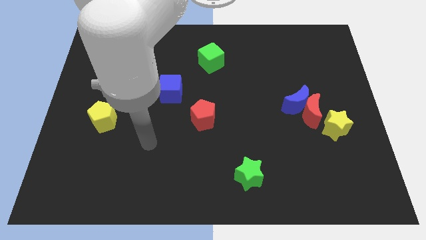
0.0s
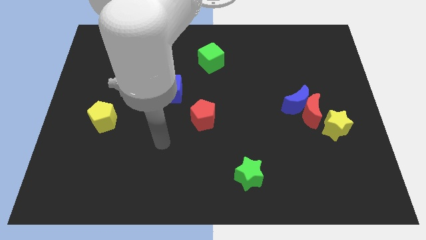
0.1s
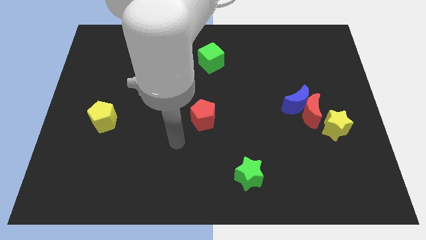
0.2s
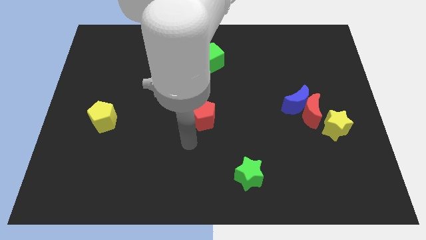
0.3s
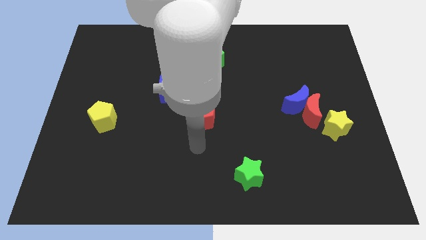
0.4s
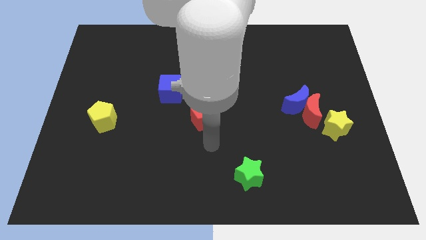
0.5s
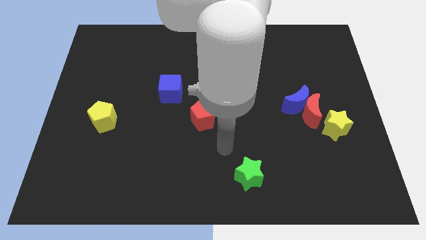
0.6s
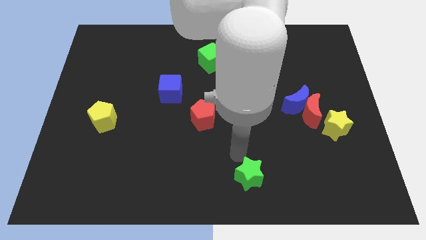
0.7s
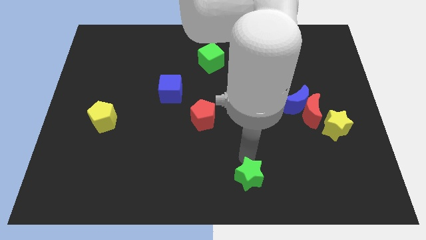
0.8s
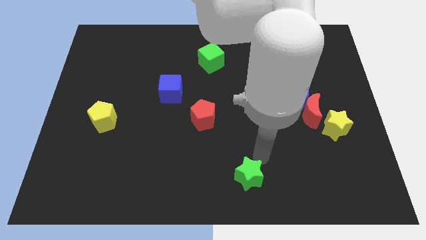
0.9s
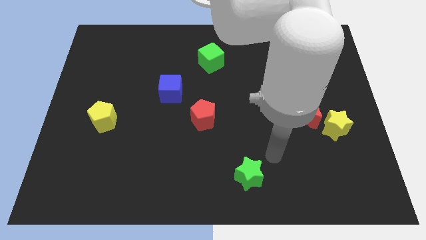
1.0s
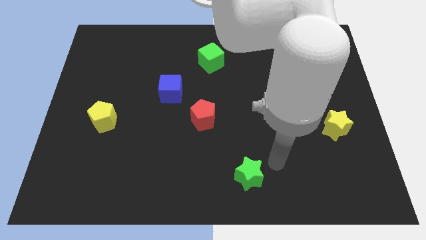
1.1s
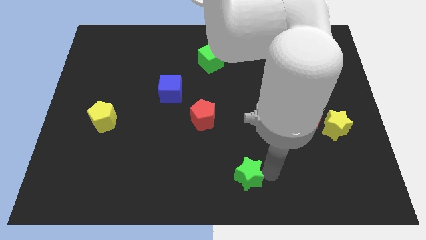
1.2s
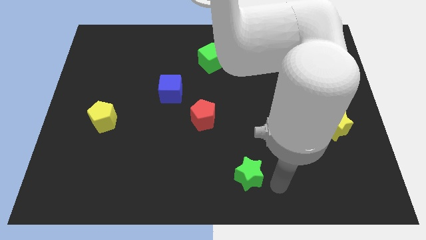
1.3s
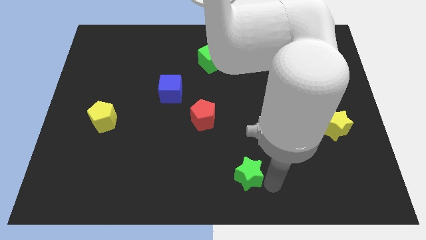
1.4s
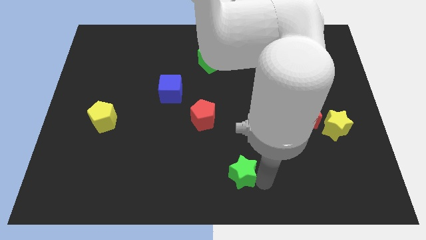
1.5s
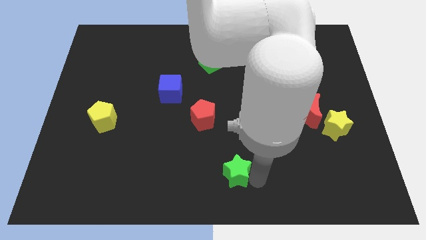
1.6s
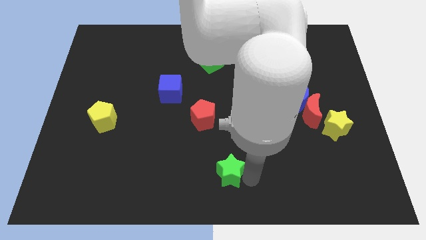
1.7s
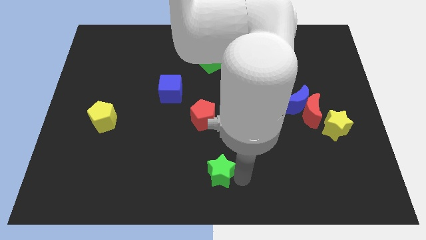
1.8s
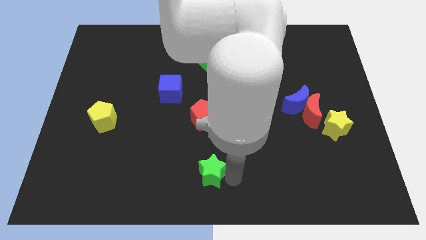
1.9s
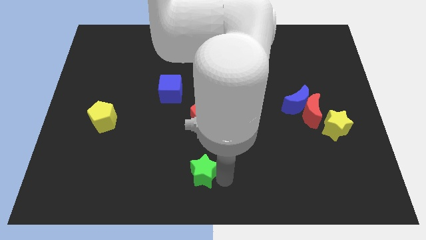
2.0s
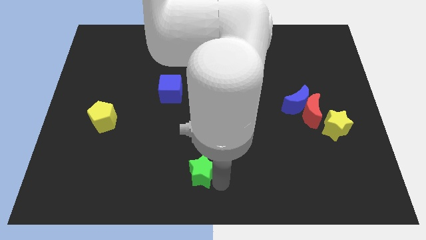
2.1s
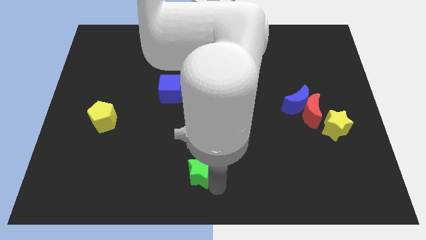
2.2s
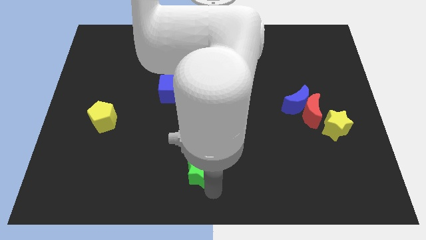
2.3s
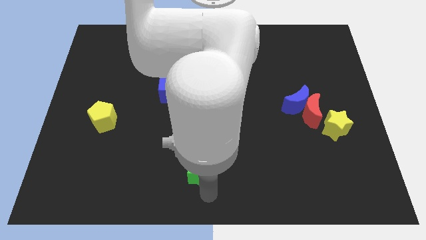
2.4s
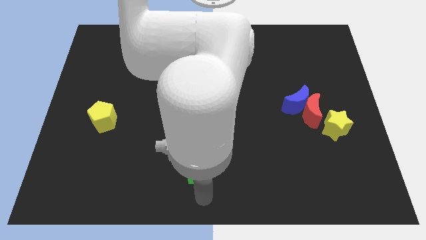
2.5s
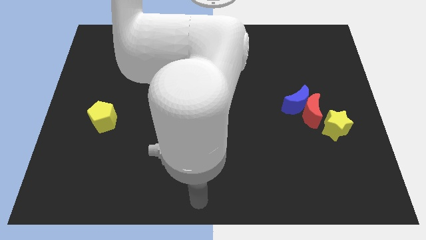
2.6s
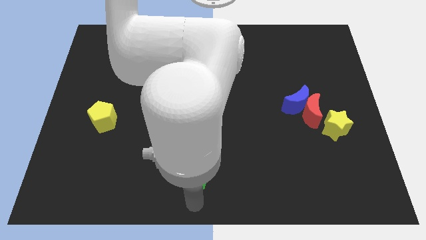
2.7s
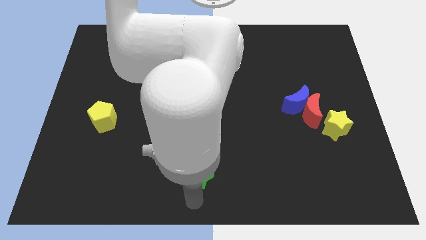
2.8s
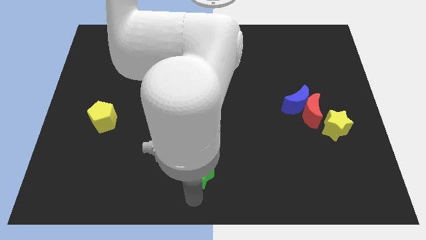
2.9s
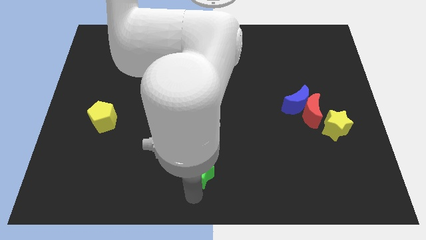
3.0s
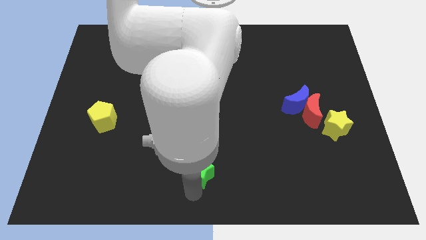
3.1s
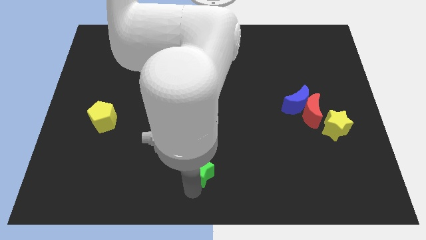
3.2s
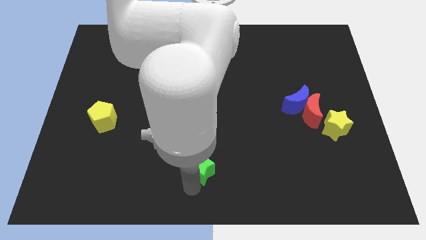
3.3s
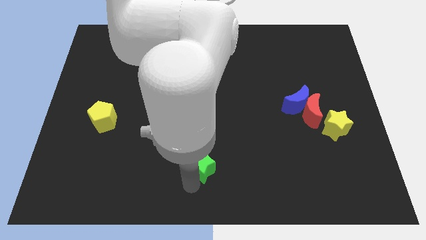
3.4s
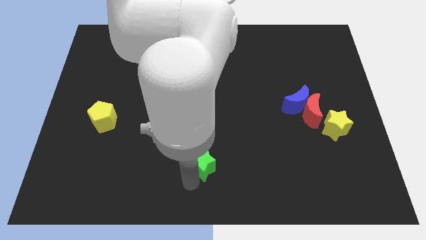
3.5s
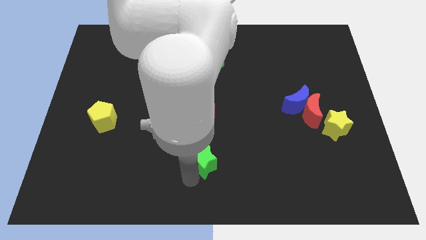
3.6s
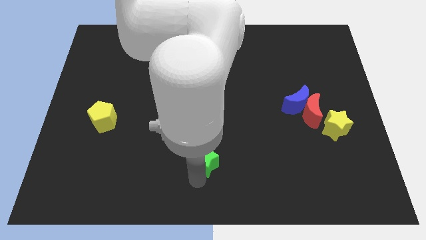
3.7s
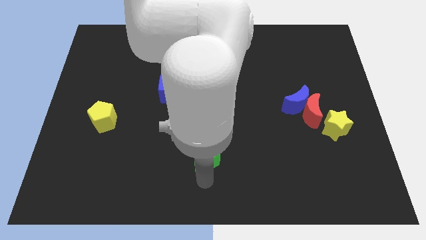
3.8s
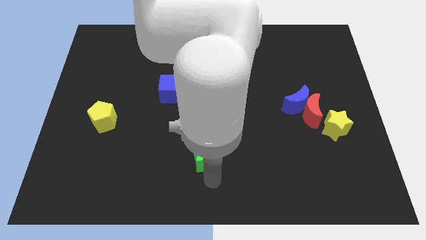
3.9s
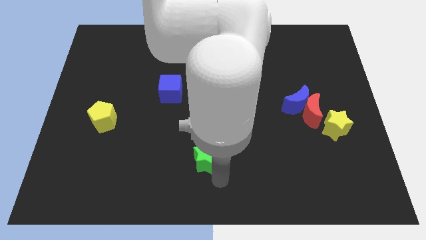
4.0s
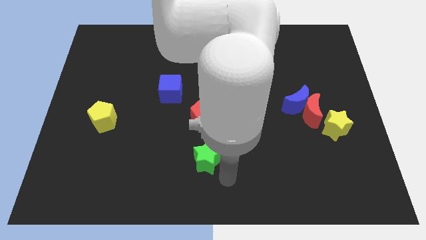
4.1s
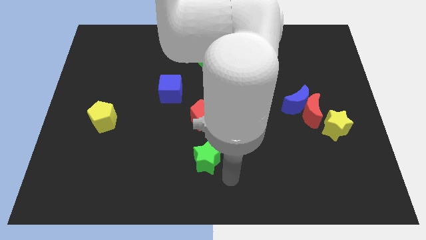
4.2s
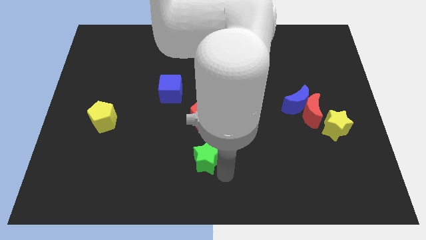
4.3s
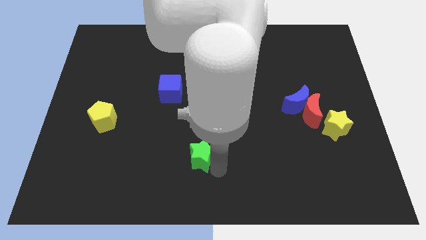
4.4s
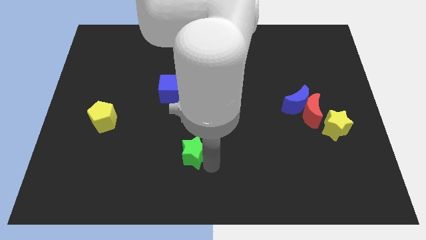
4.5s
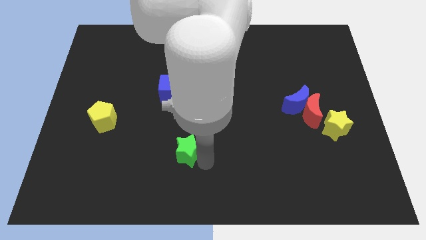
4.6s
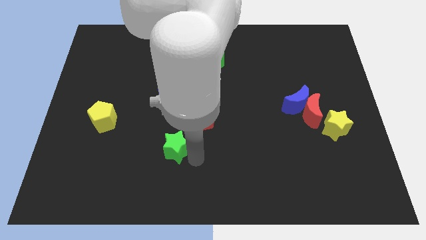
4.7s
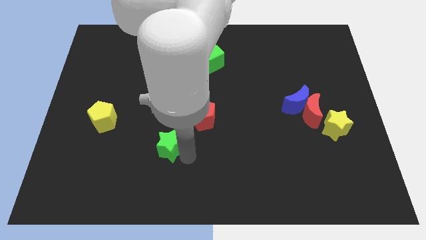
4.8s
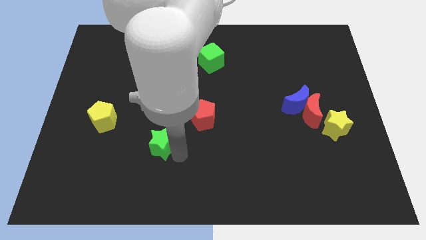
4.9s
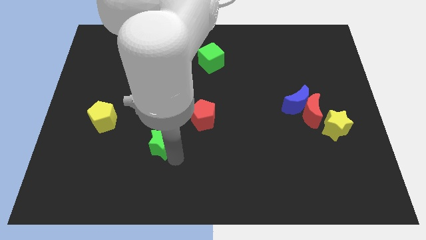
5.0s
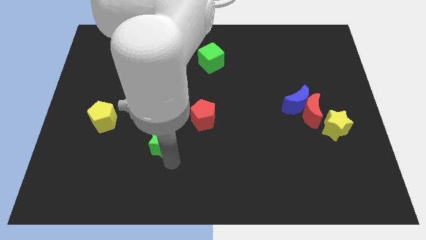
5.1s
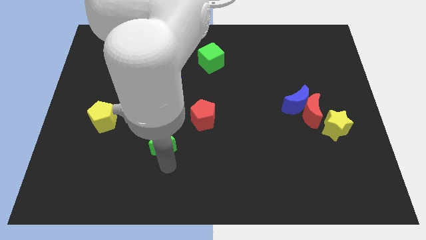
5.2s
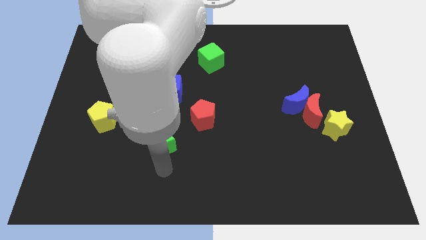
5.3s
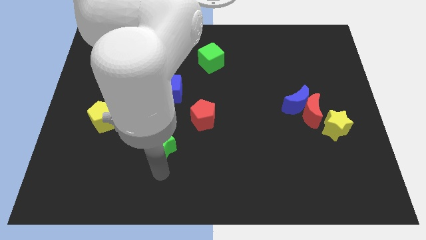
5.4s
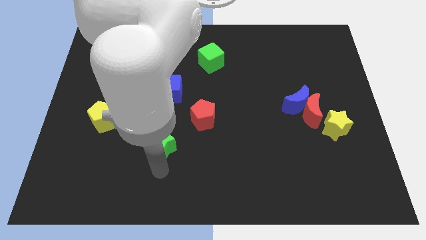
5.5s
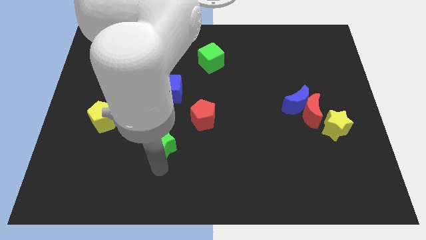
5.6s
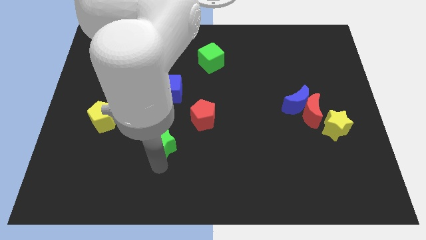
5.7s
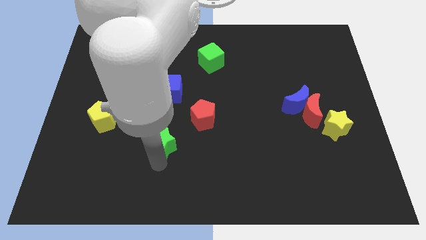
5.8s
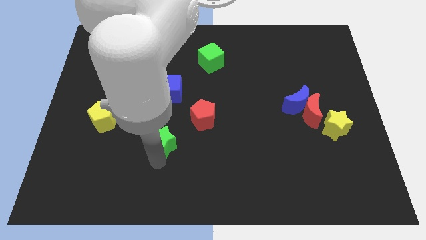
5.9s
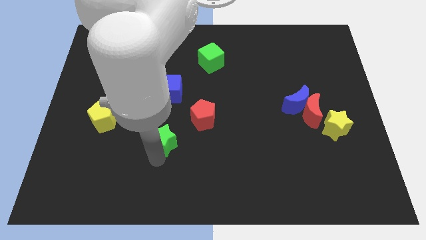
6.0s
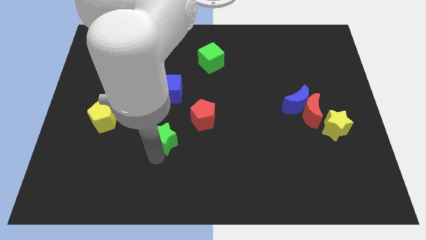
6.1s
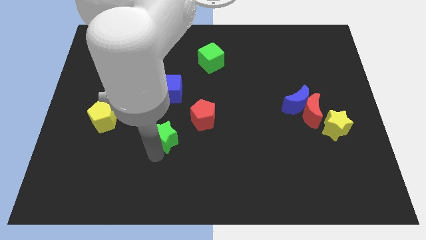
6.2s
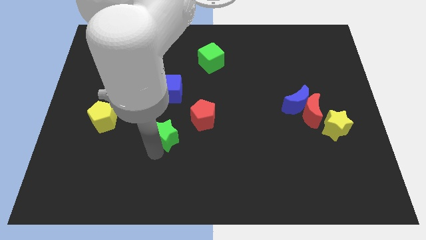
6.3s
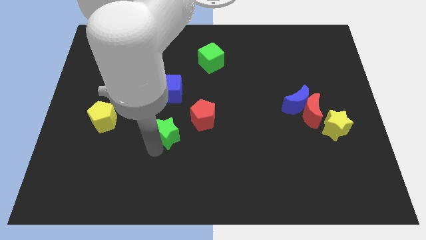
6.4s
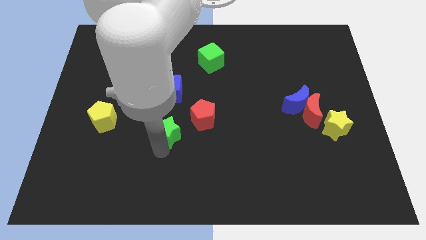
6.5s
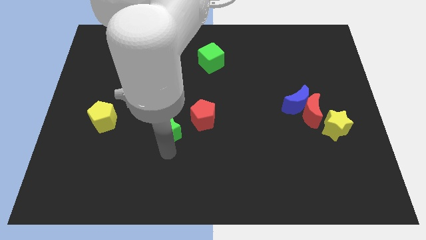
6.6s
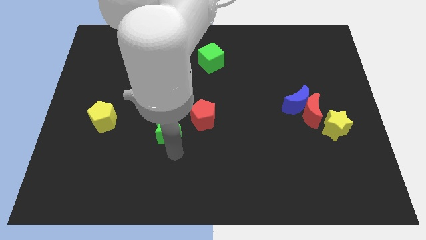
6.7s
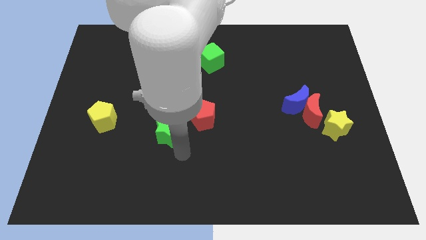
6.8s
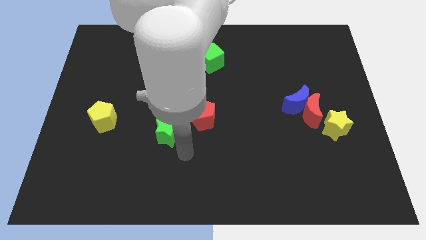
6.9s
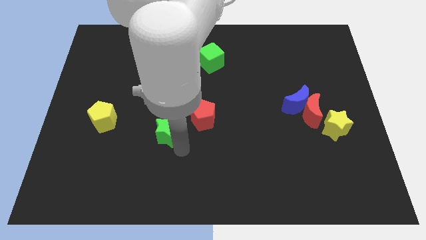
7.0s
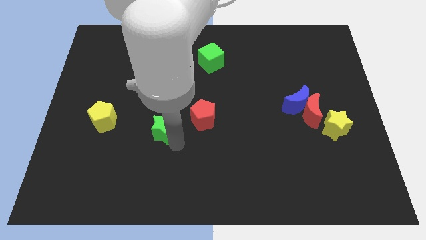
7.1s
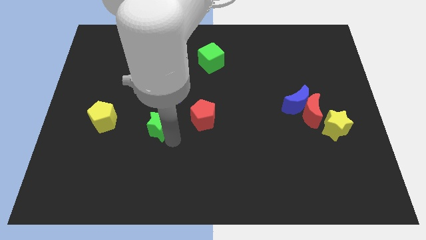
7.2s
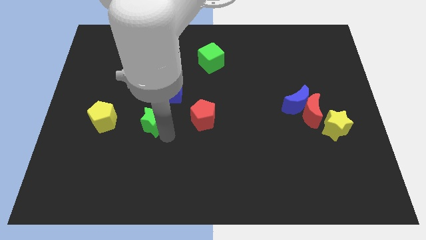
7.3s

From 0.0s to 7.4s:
push the green star diagonally down and to the left of the blue cube
